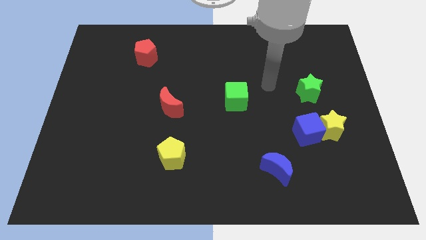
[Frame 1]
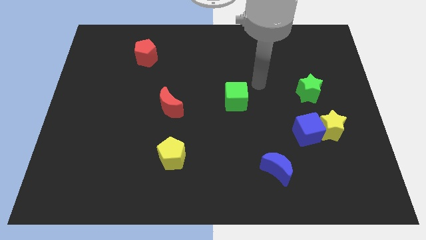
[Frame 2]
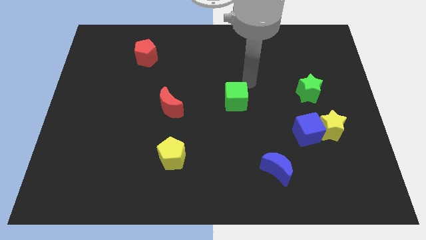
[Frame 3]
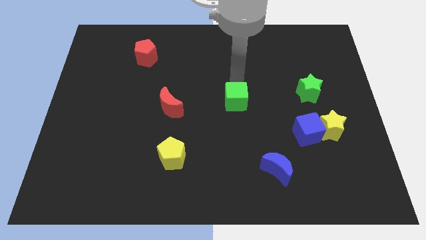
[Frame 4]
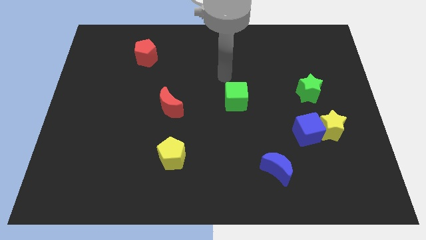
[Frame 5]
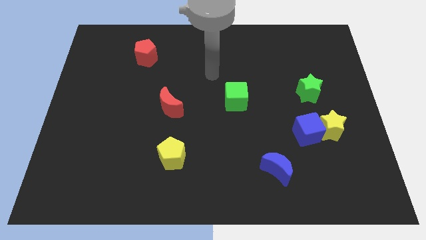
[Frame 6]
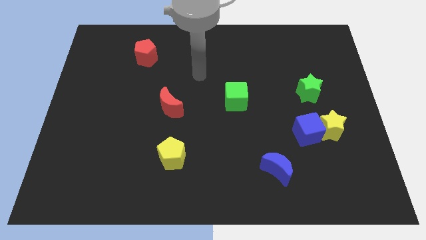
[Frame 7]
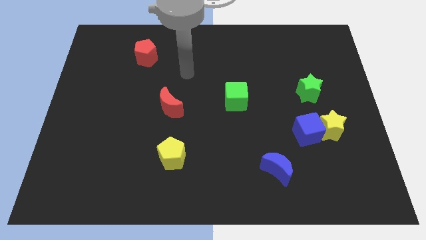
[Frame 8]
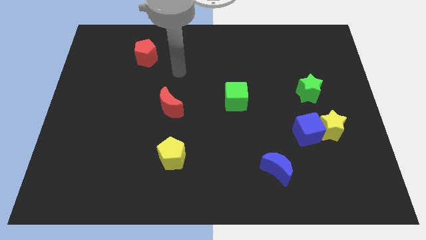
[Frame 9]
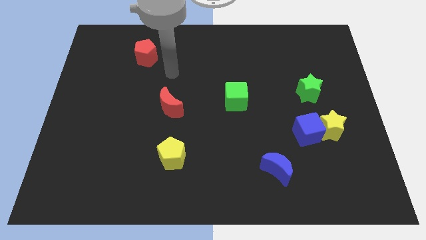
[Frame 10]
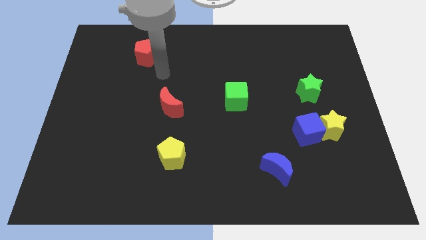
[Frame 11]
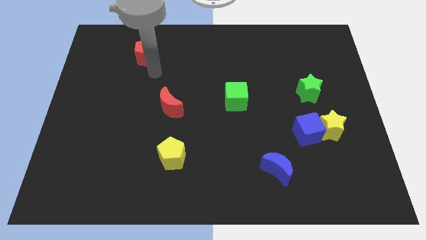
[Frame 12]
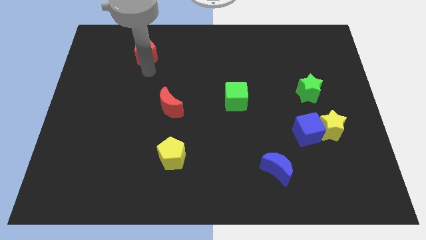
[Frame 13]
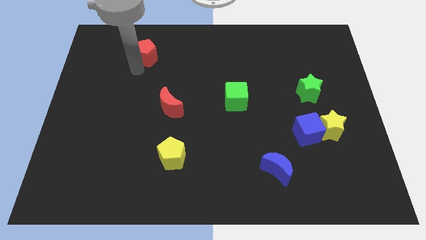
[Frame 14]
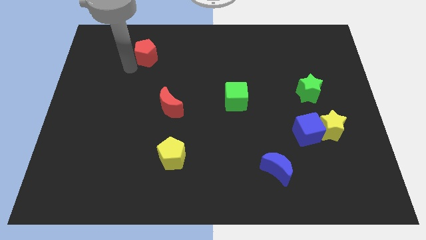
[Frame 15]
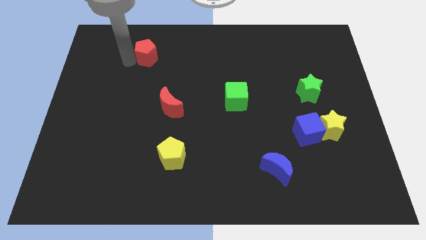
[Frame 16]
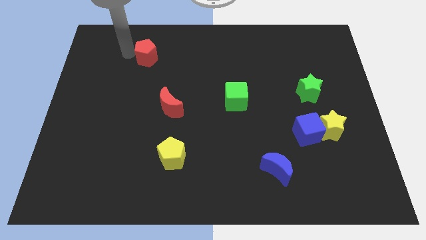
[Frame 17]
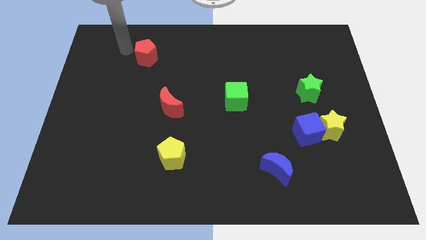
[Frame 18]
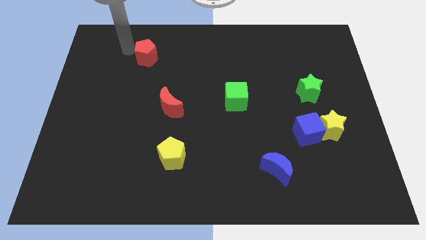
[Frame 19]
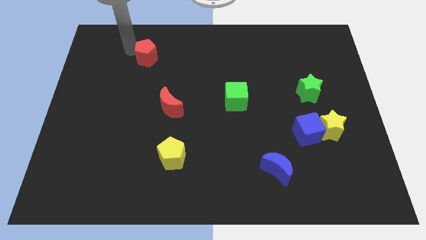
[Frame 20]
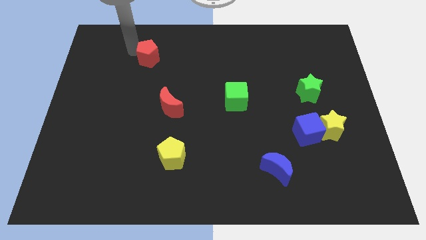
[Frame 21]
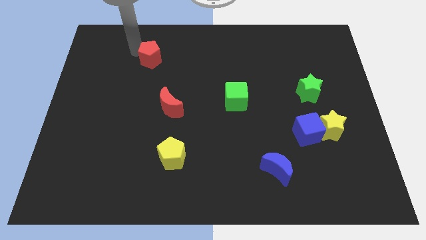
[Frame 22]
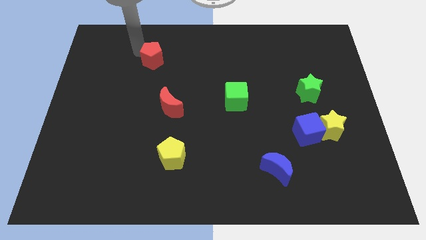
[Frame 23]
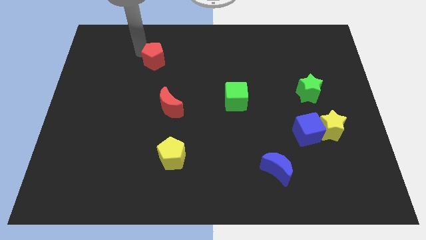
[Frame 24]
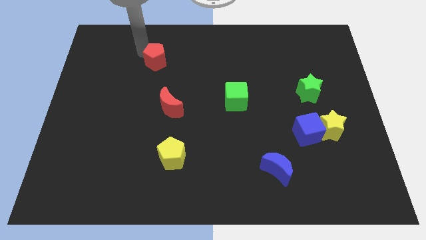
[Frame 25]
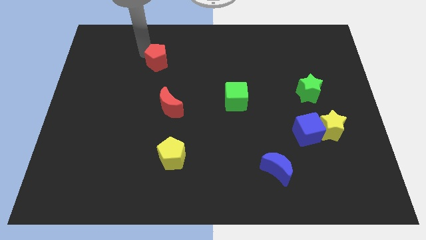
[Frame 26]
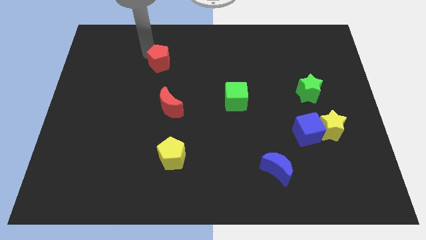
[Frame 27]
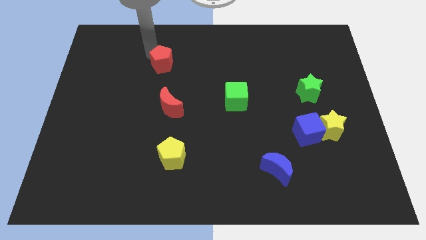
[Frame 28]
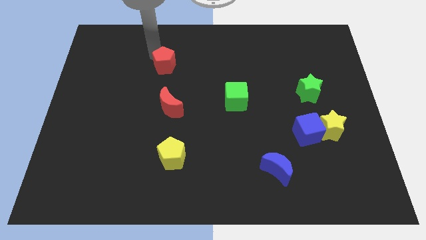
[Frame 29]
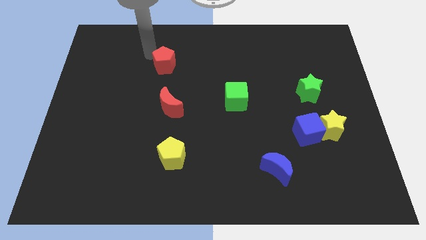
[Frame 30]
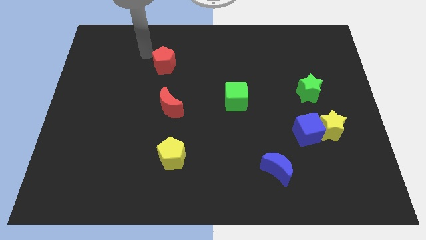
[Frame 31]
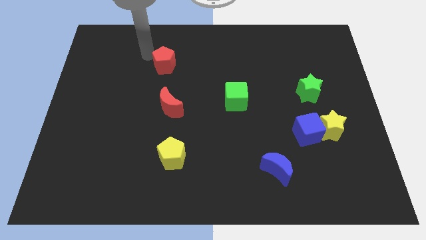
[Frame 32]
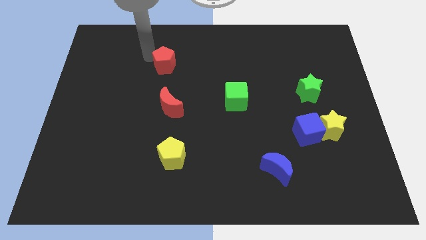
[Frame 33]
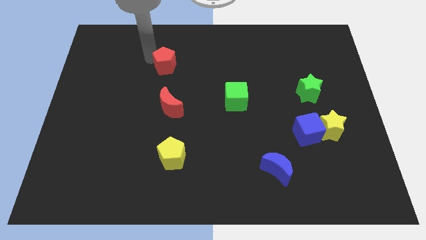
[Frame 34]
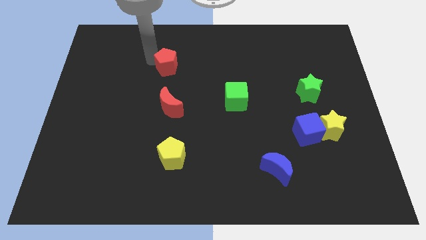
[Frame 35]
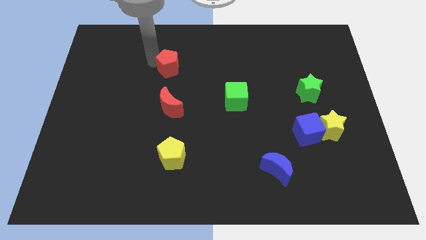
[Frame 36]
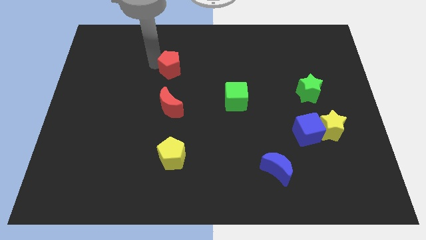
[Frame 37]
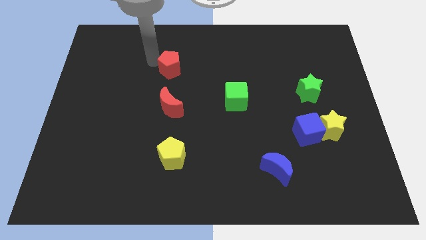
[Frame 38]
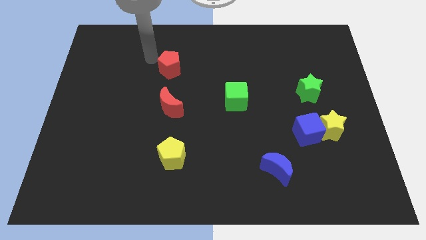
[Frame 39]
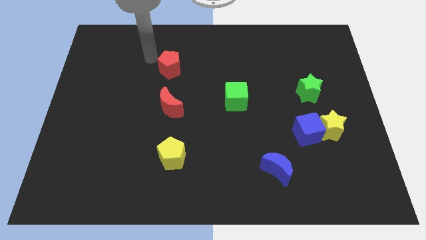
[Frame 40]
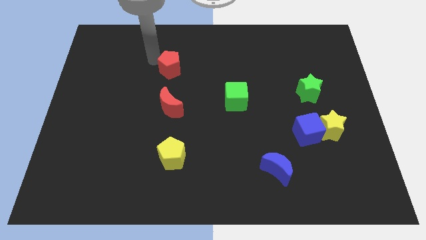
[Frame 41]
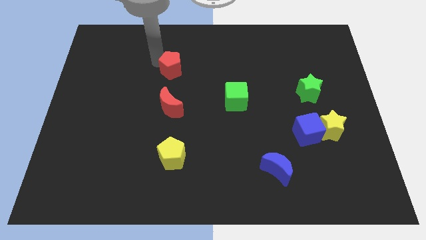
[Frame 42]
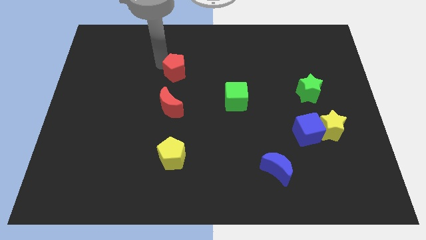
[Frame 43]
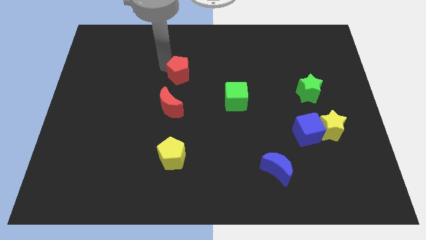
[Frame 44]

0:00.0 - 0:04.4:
put the red pentagon to the middle of the board

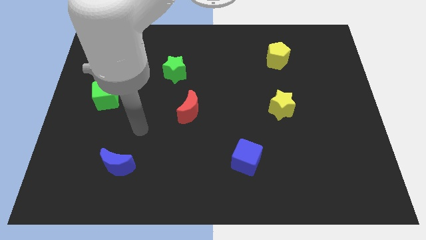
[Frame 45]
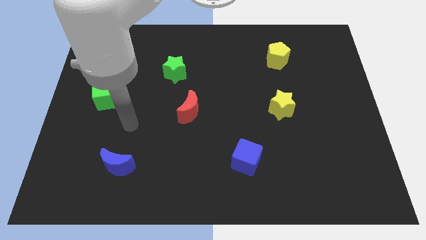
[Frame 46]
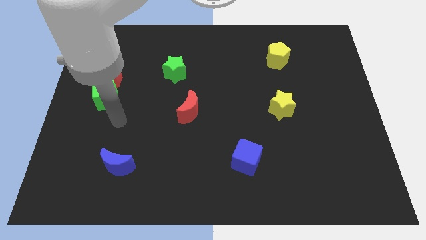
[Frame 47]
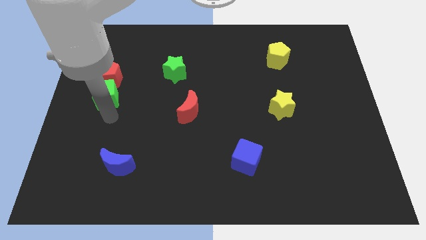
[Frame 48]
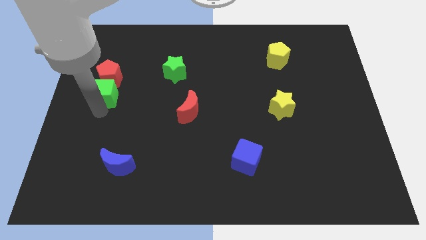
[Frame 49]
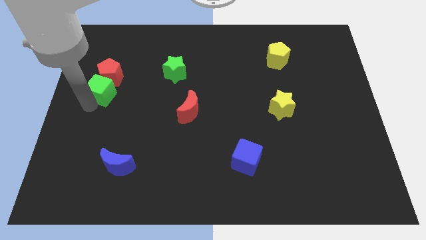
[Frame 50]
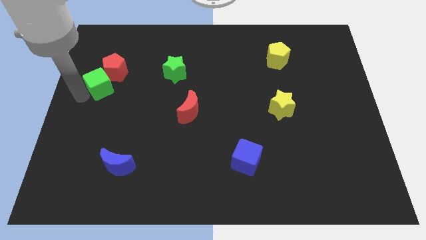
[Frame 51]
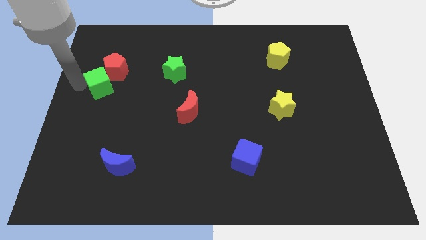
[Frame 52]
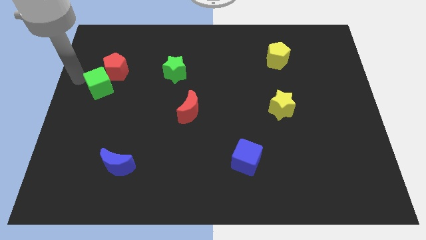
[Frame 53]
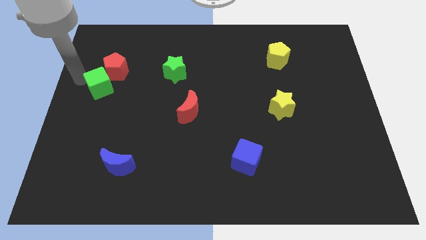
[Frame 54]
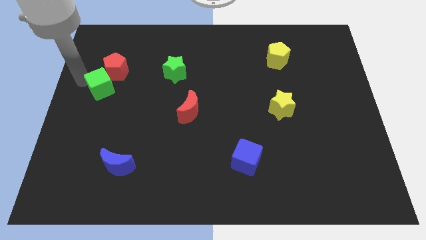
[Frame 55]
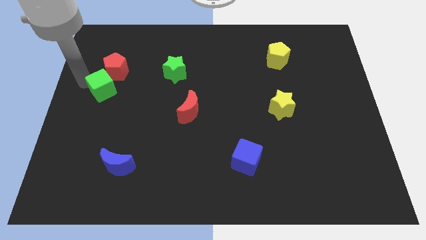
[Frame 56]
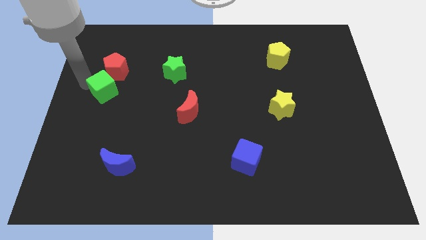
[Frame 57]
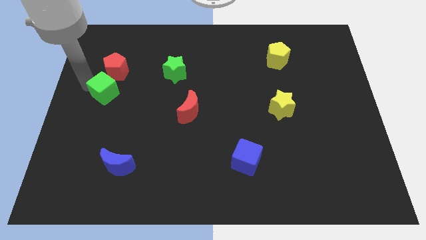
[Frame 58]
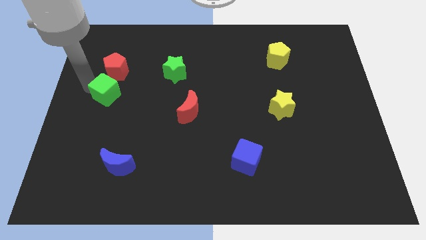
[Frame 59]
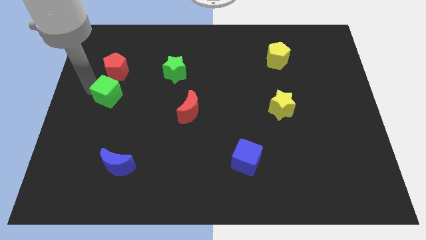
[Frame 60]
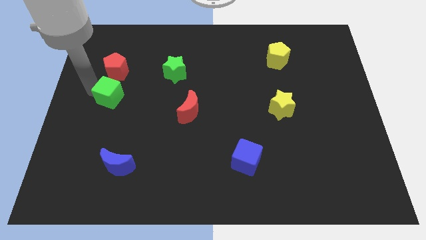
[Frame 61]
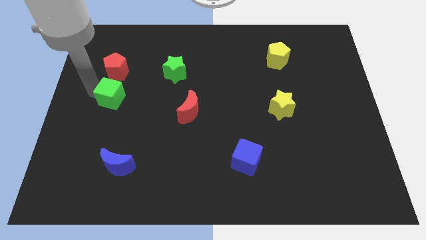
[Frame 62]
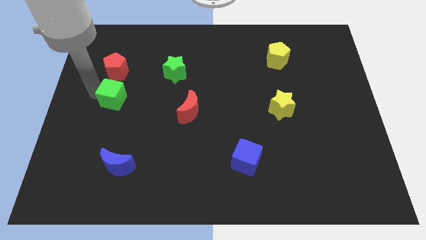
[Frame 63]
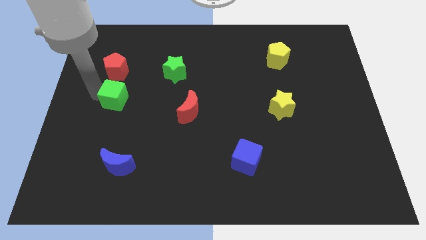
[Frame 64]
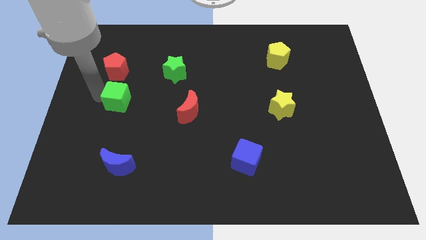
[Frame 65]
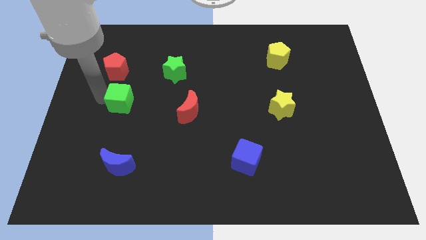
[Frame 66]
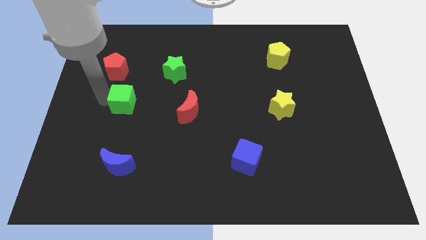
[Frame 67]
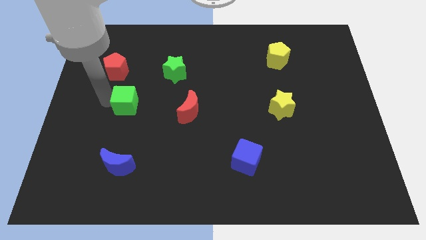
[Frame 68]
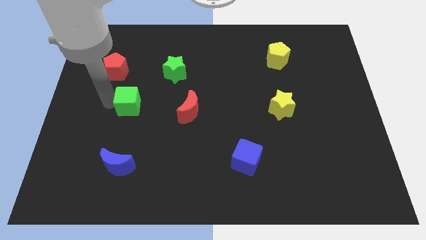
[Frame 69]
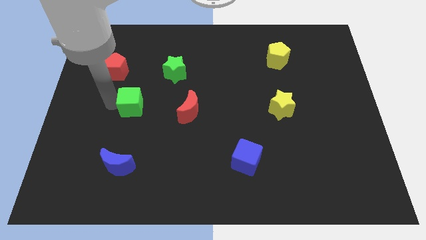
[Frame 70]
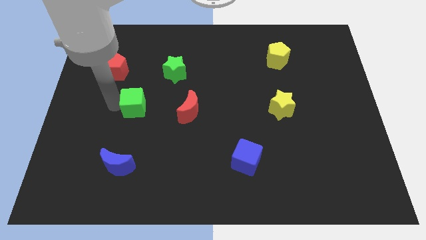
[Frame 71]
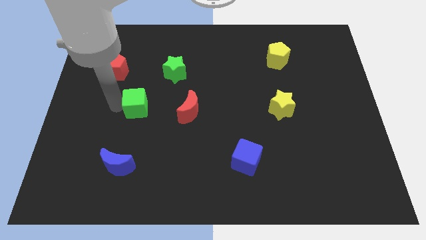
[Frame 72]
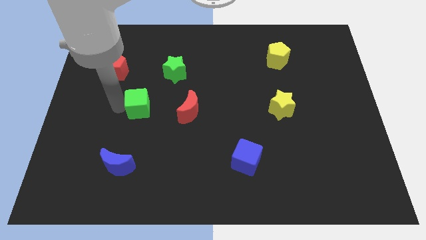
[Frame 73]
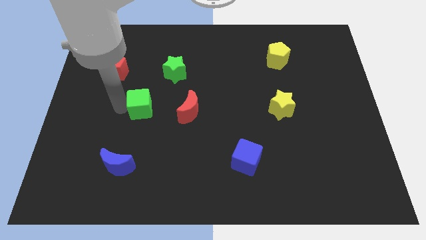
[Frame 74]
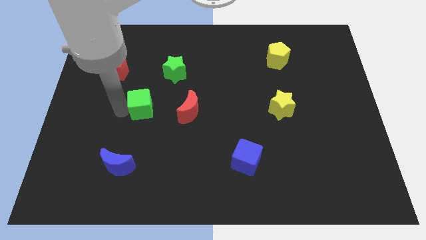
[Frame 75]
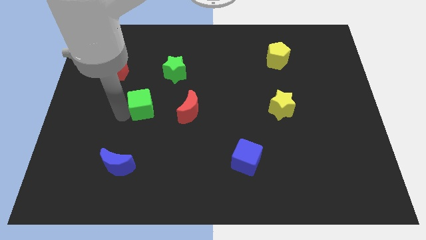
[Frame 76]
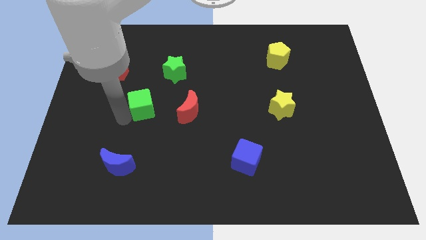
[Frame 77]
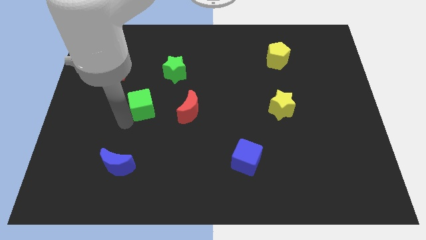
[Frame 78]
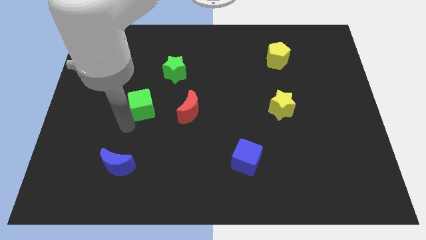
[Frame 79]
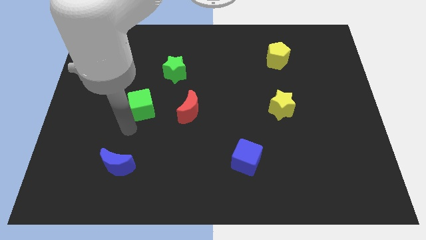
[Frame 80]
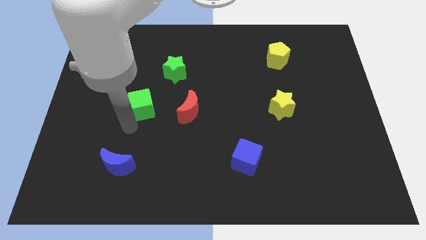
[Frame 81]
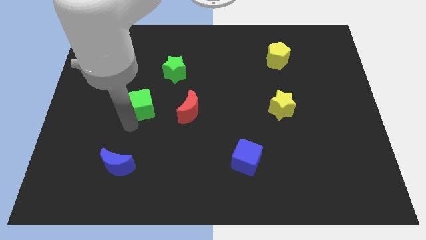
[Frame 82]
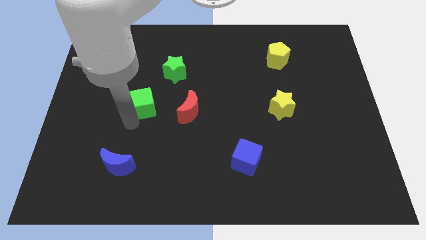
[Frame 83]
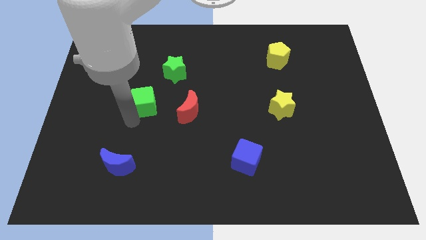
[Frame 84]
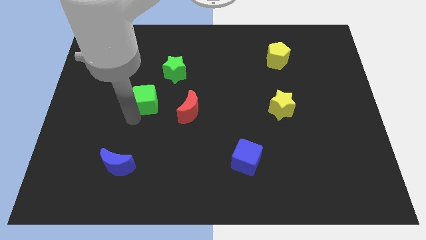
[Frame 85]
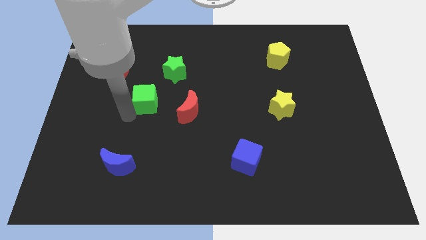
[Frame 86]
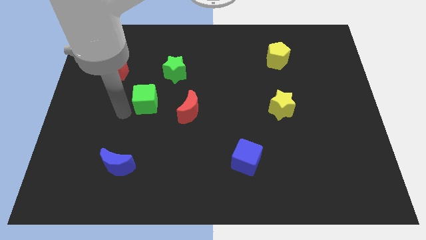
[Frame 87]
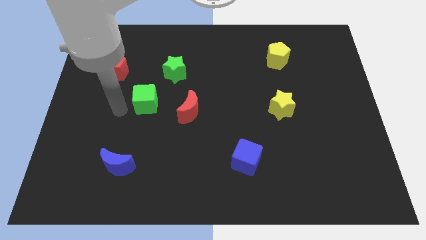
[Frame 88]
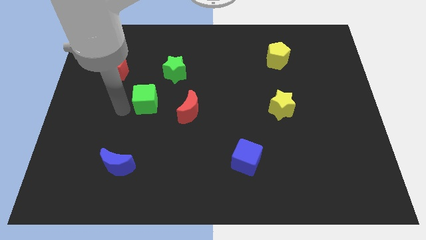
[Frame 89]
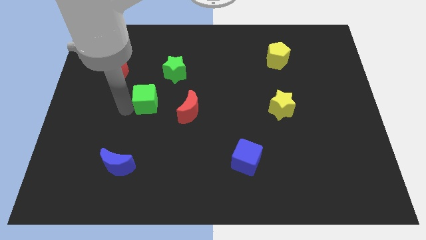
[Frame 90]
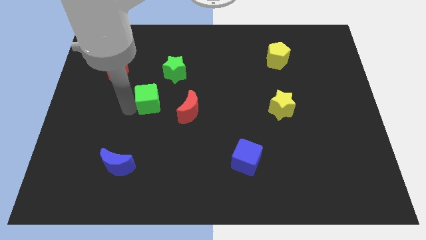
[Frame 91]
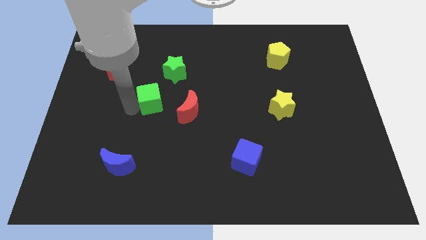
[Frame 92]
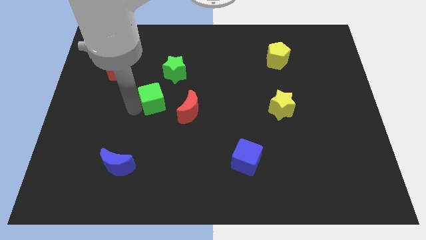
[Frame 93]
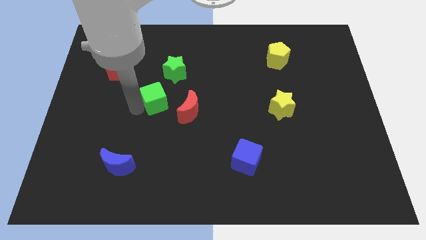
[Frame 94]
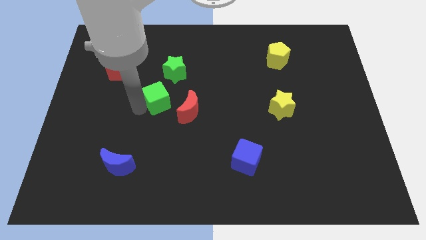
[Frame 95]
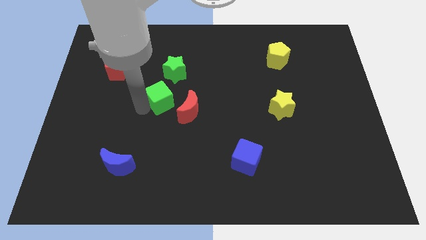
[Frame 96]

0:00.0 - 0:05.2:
slide the green cube to the middle
